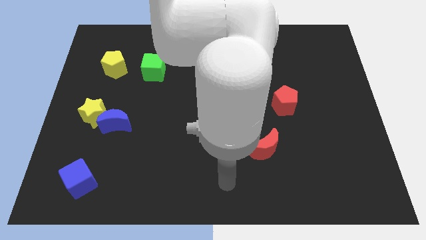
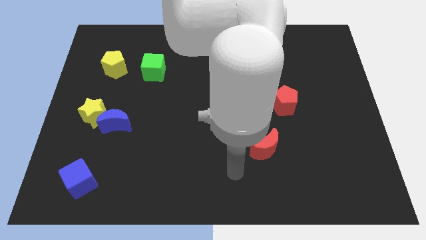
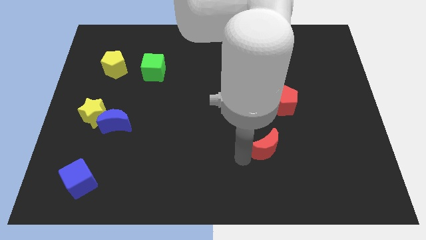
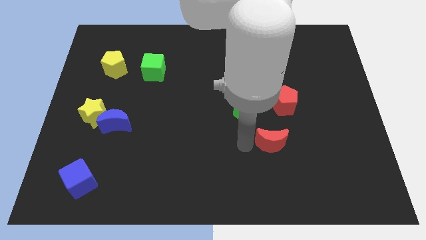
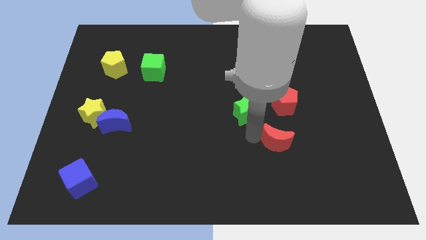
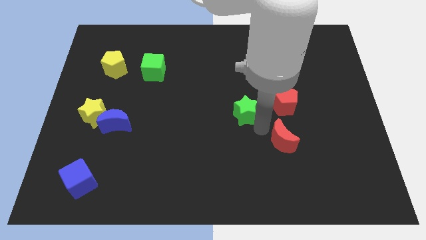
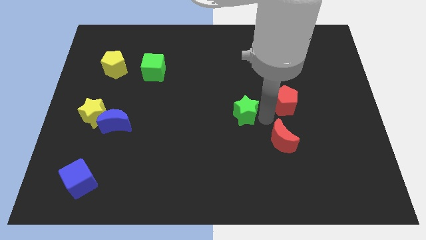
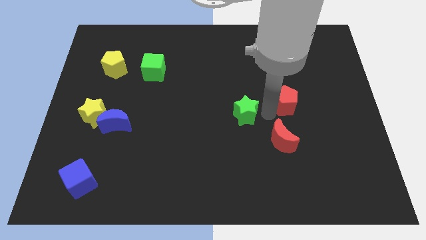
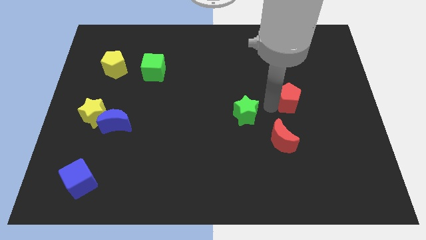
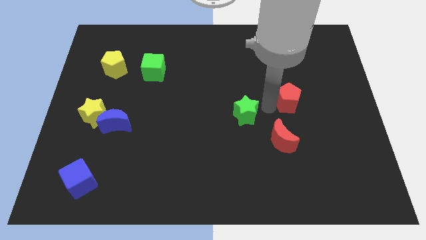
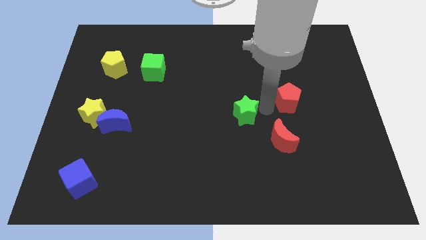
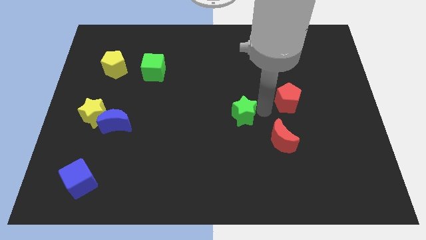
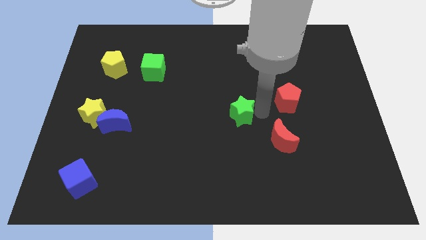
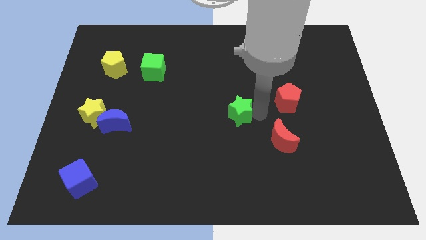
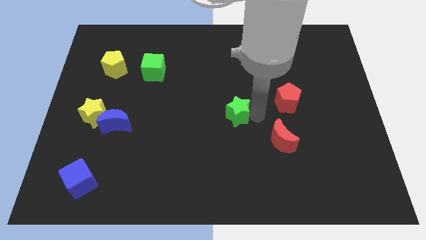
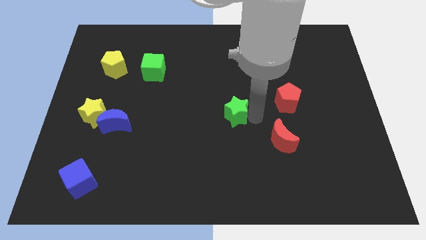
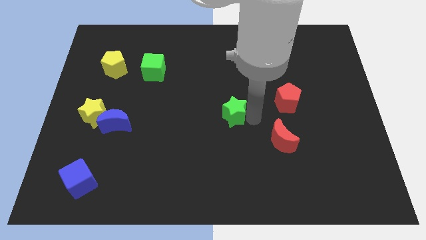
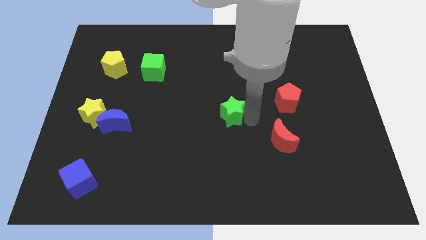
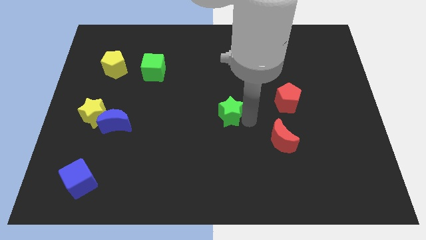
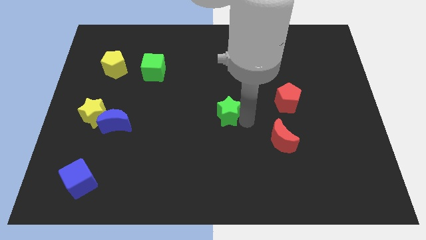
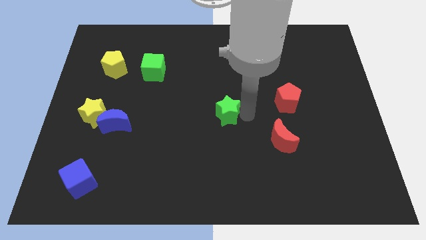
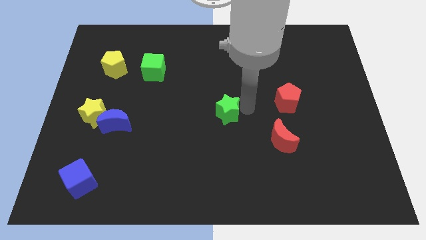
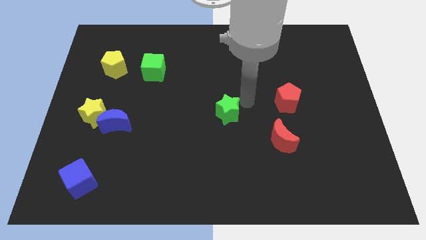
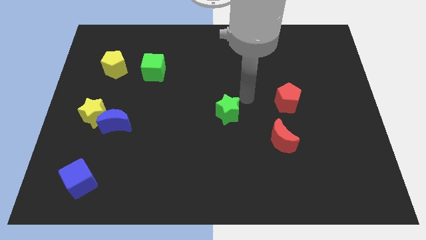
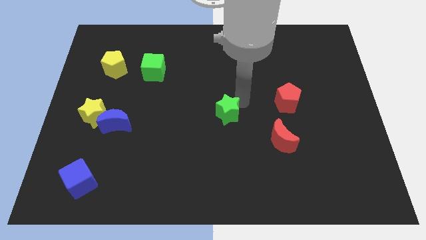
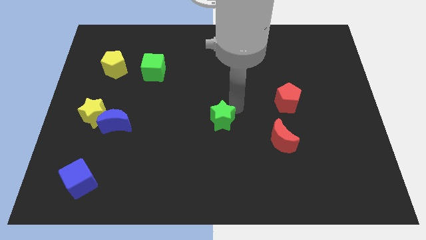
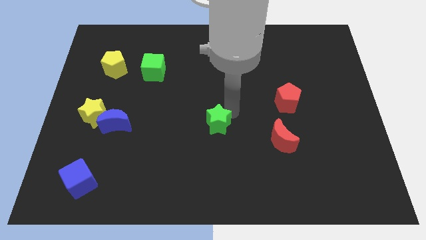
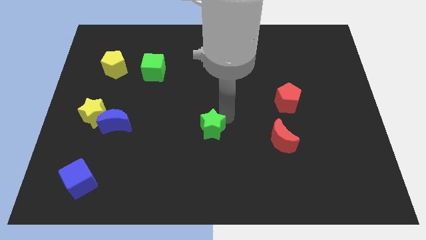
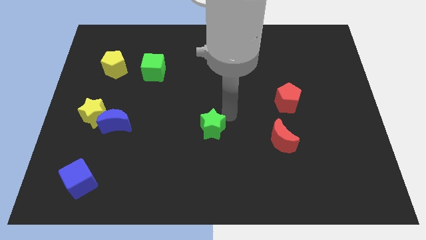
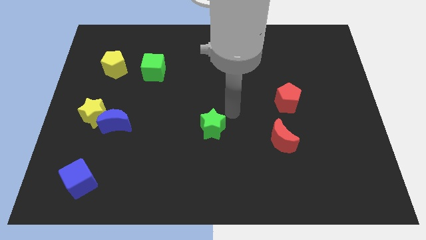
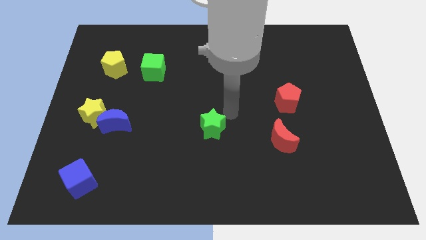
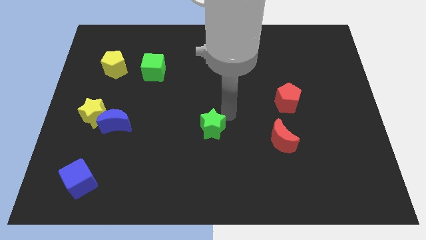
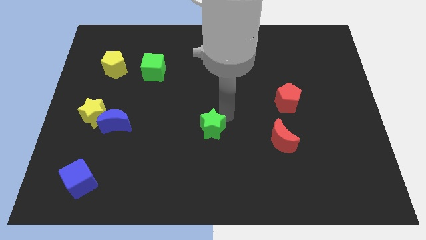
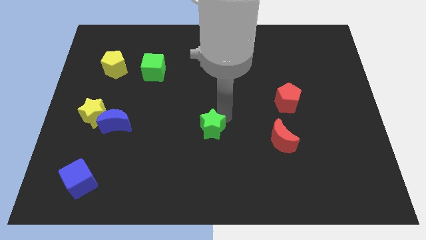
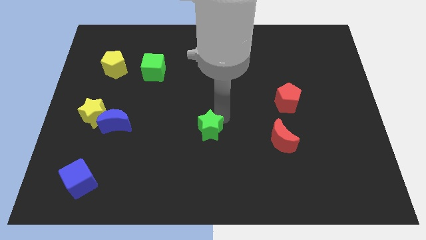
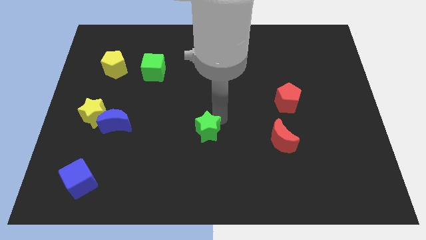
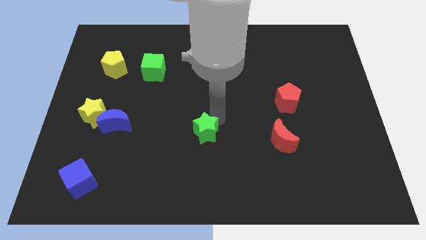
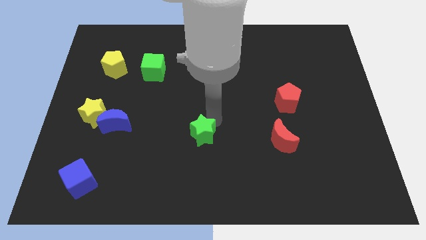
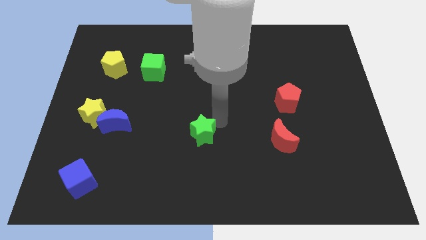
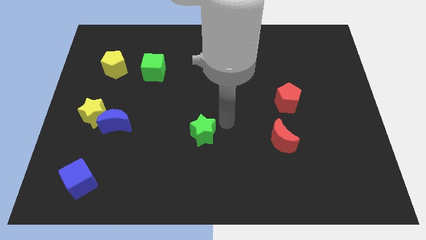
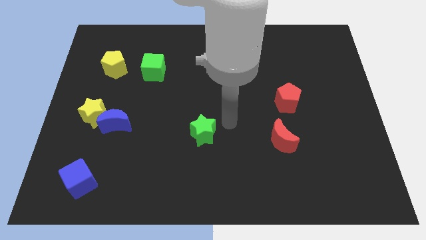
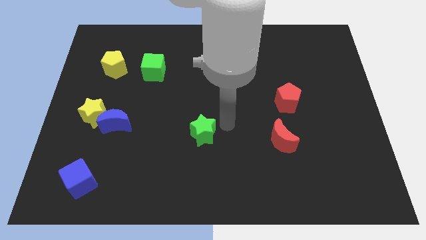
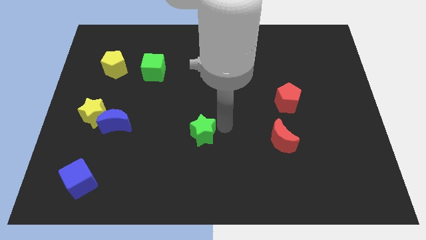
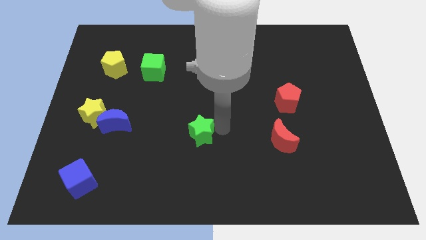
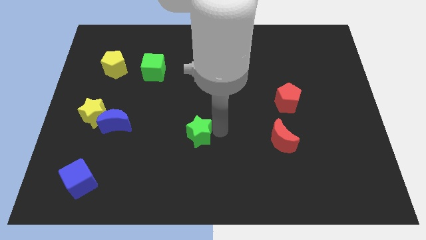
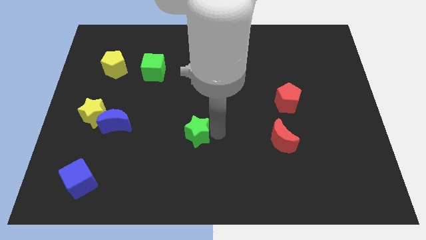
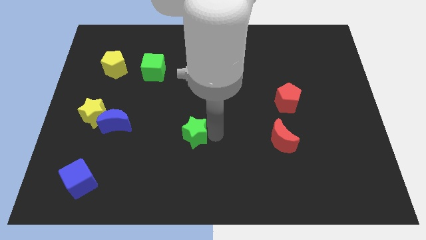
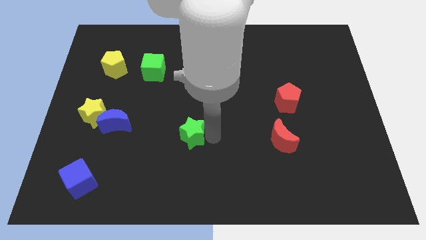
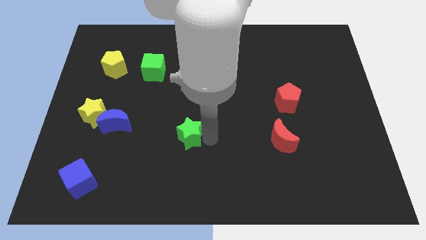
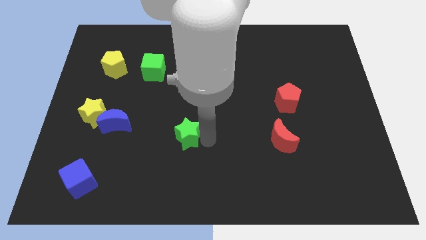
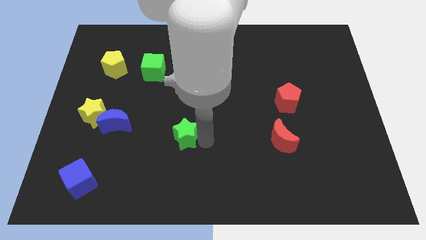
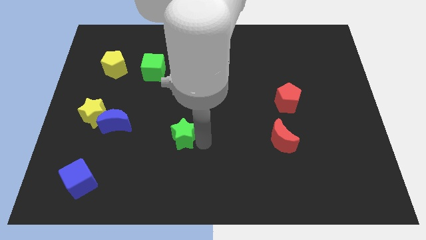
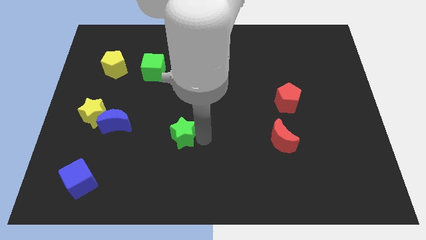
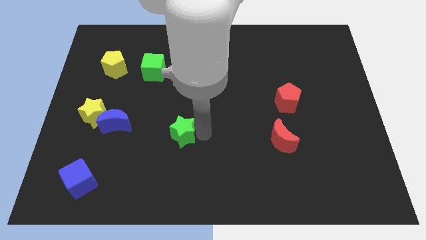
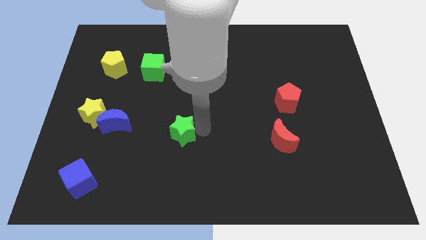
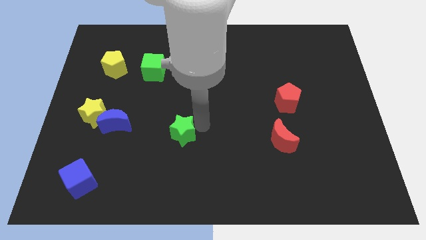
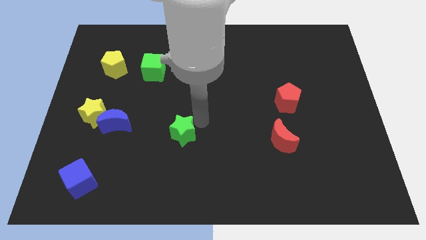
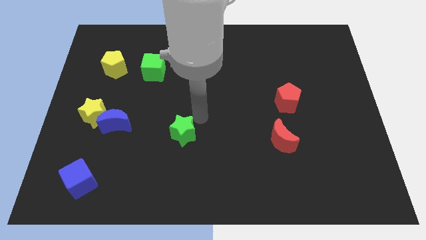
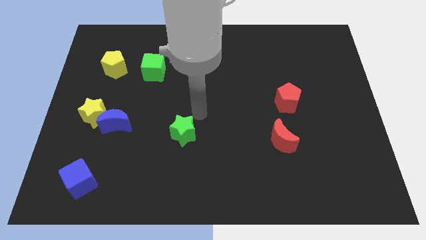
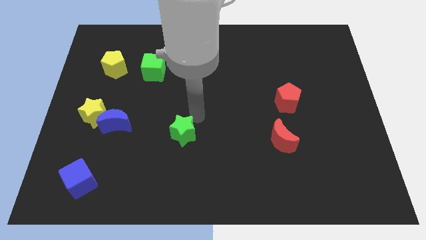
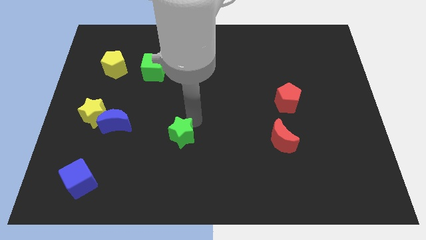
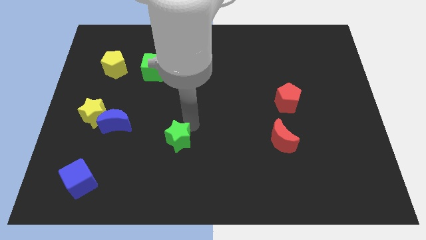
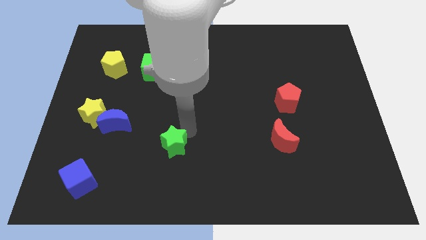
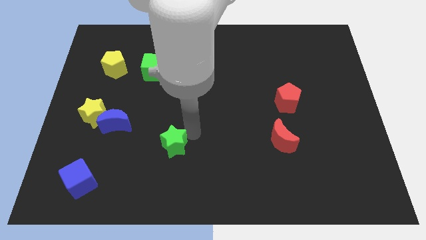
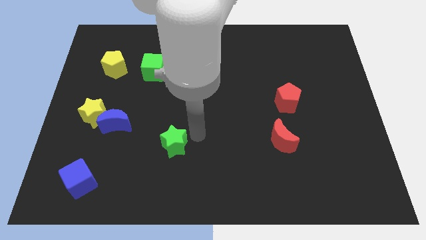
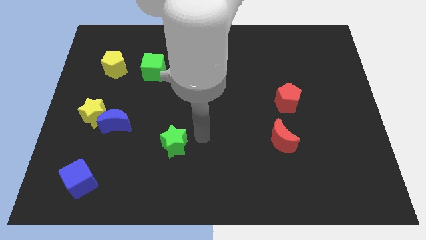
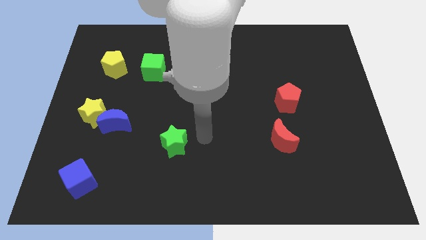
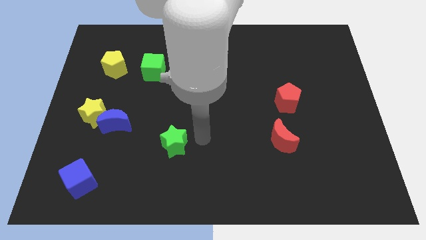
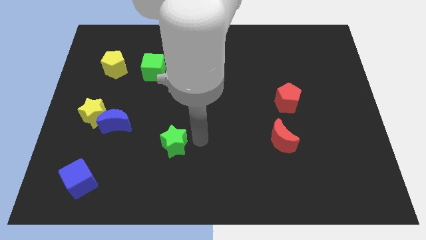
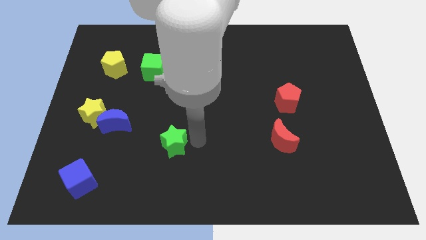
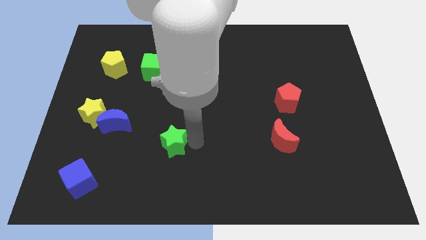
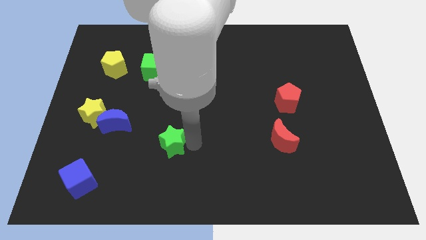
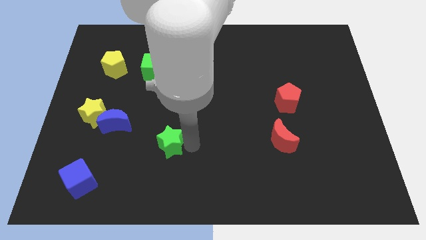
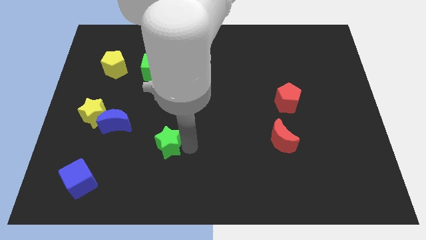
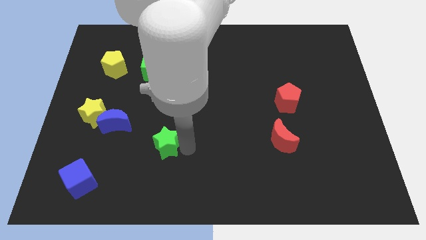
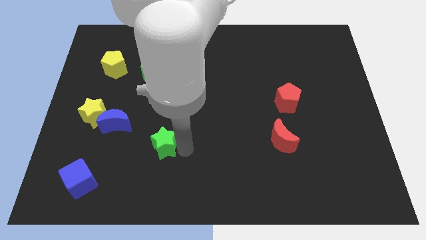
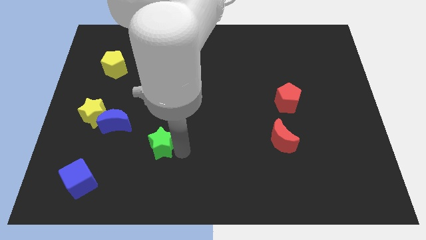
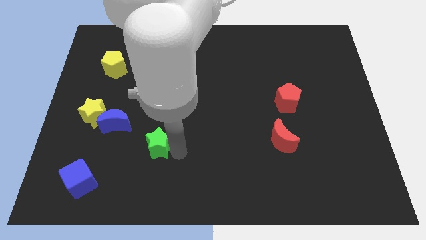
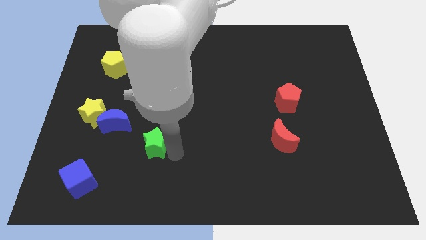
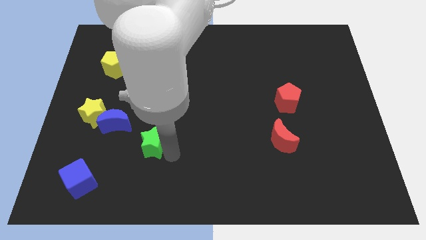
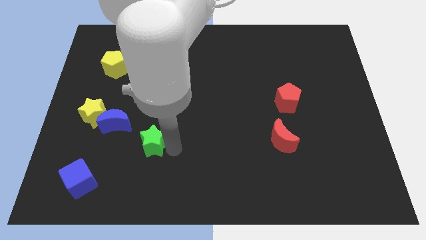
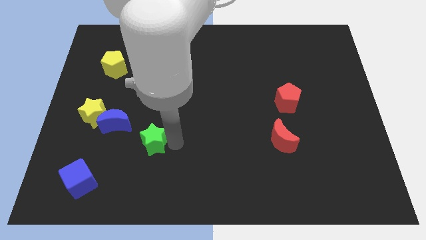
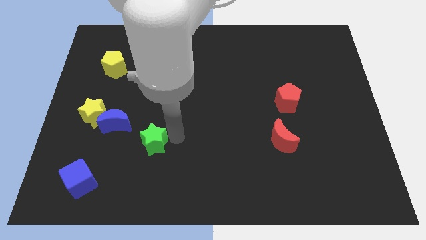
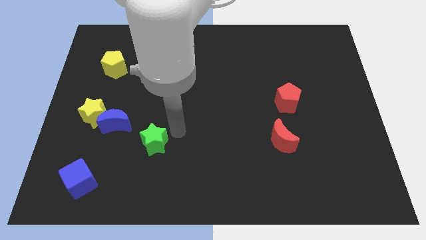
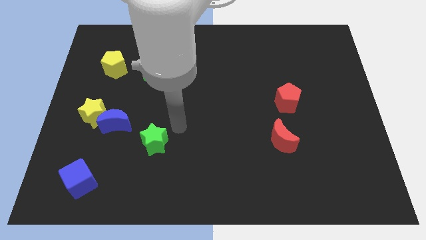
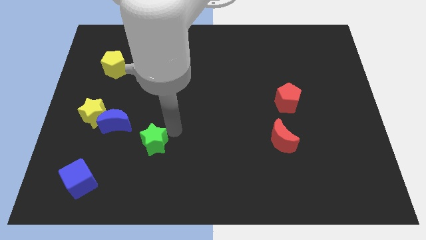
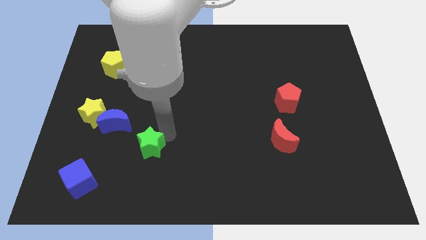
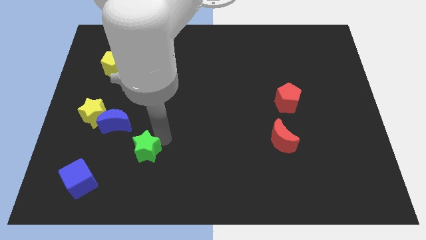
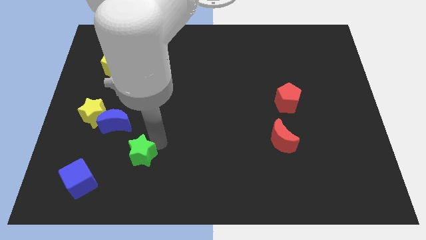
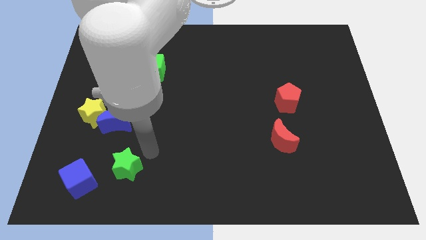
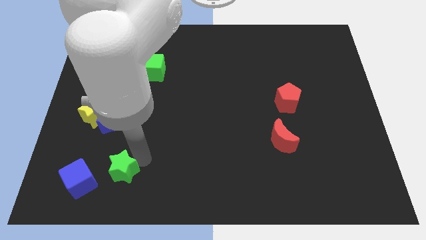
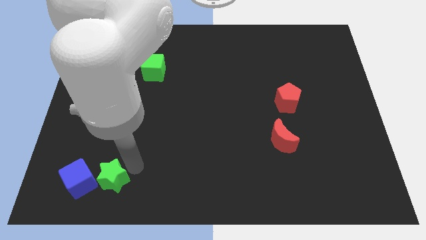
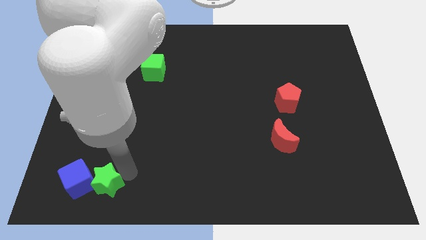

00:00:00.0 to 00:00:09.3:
put the green star towards the blue cube
